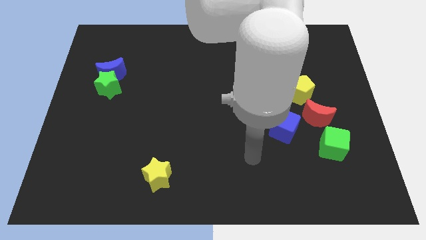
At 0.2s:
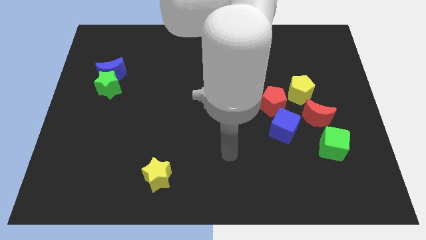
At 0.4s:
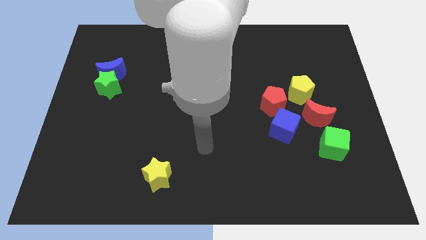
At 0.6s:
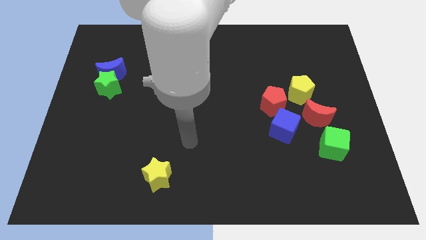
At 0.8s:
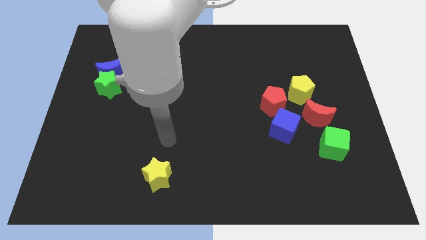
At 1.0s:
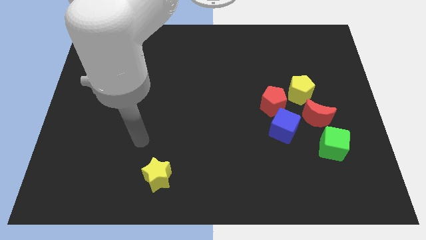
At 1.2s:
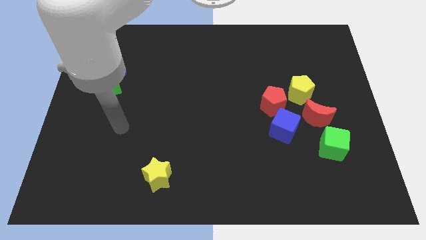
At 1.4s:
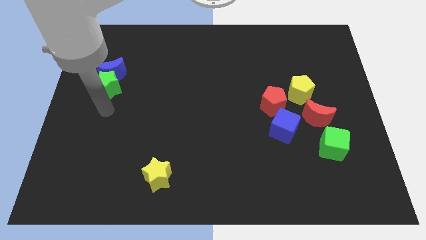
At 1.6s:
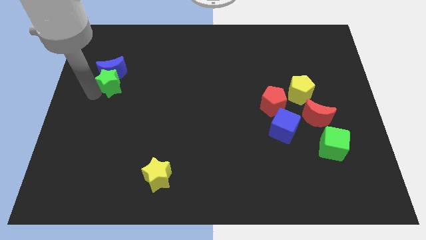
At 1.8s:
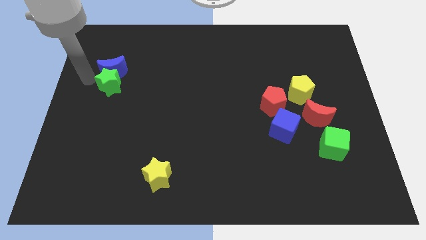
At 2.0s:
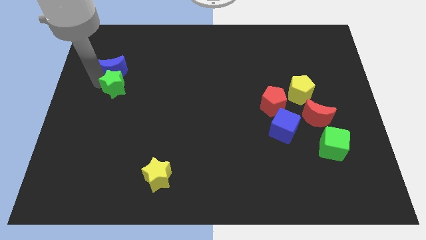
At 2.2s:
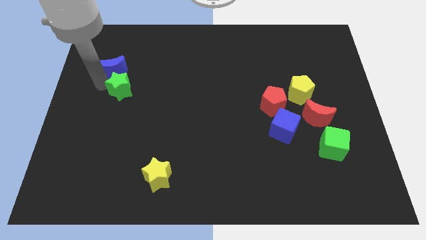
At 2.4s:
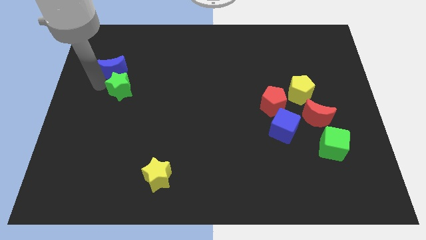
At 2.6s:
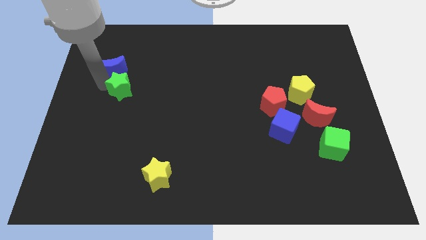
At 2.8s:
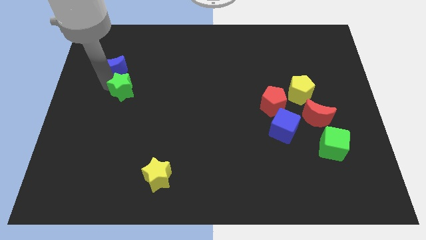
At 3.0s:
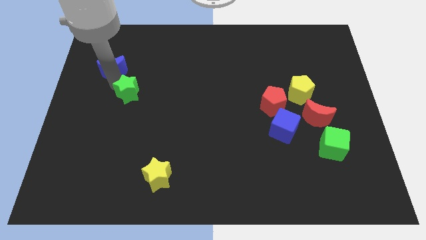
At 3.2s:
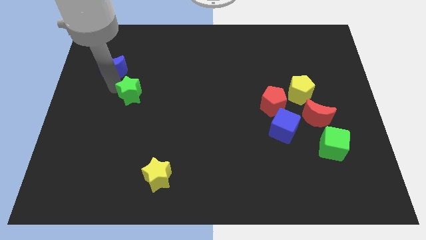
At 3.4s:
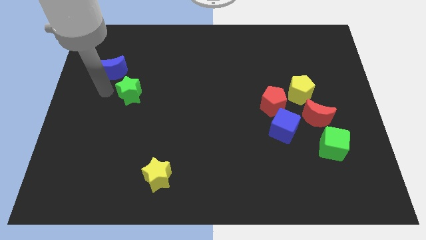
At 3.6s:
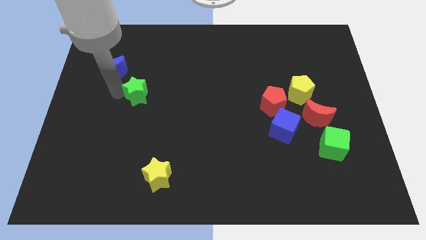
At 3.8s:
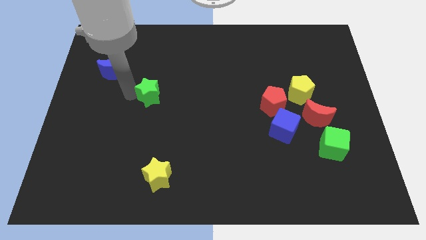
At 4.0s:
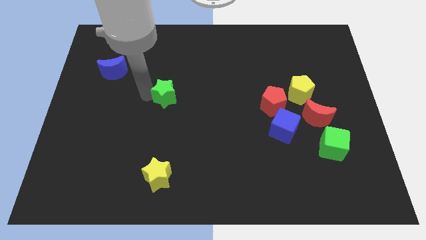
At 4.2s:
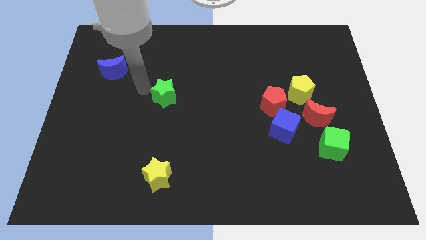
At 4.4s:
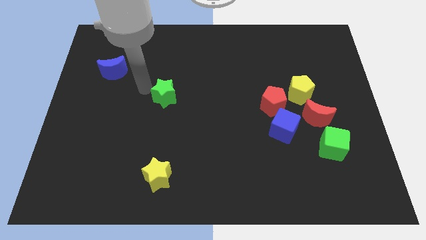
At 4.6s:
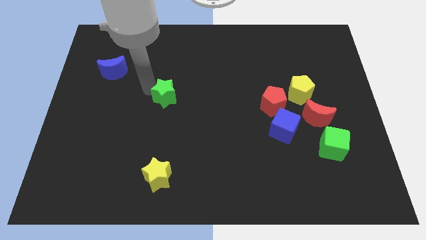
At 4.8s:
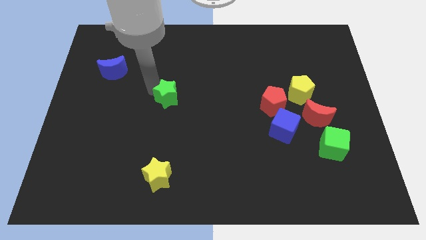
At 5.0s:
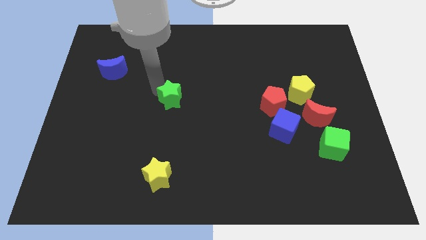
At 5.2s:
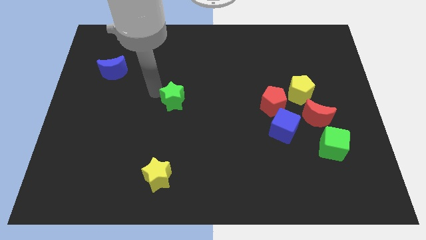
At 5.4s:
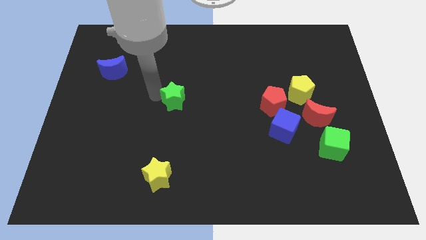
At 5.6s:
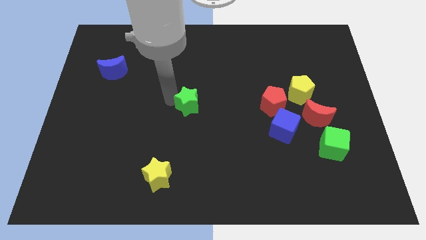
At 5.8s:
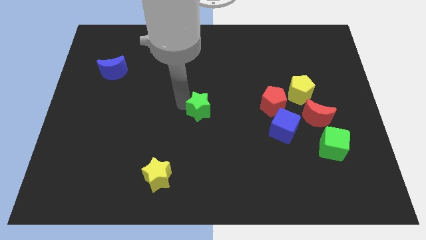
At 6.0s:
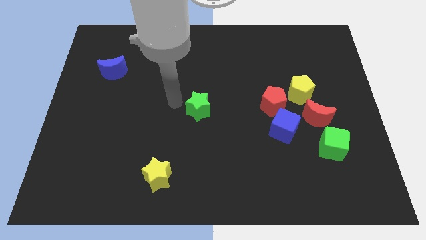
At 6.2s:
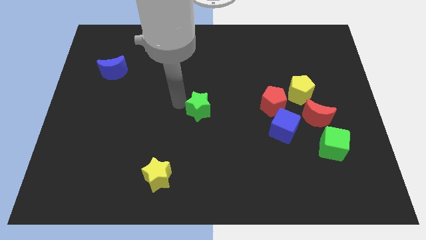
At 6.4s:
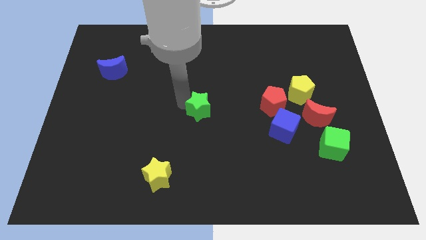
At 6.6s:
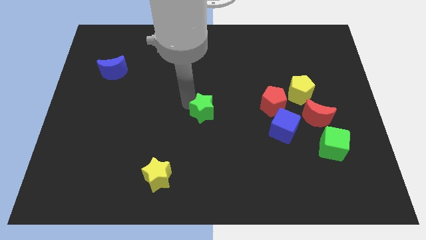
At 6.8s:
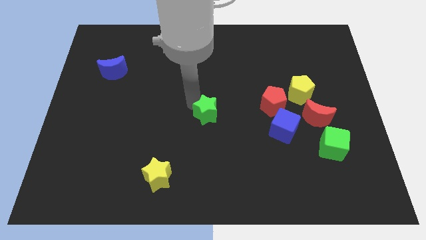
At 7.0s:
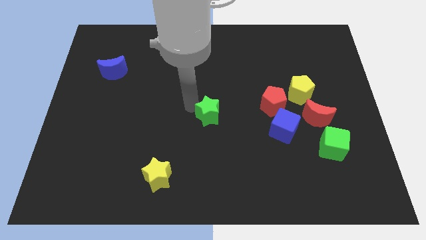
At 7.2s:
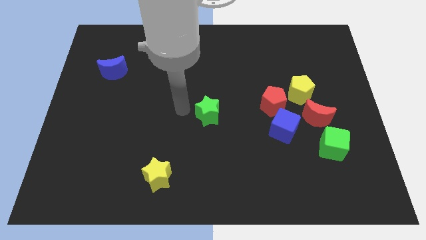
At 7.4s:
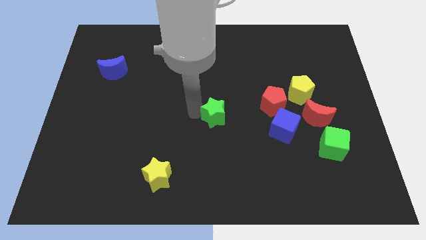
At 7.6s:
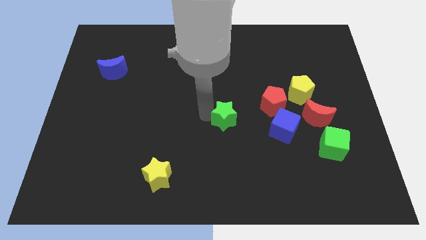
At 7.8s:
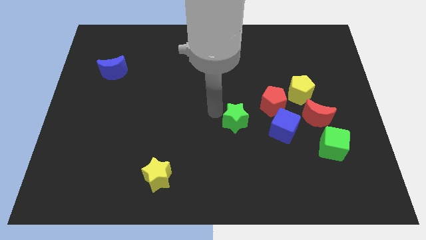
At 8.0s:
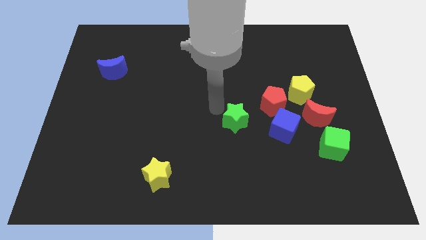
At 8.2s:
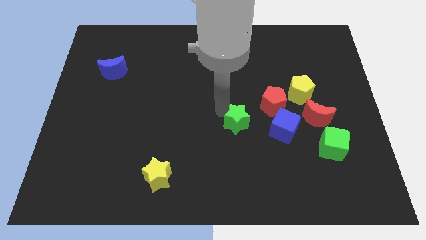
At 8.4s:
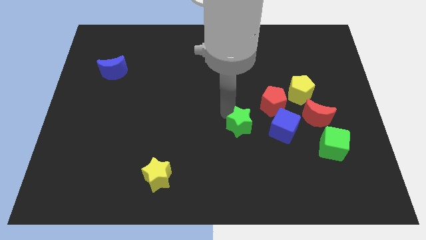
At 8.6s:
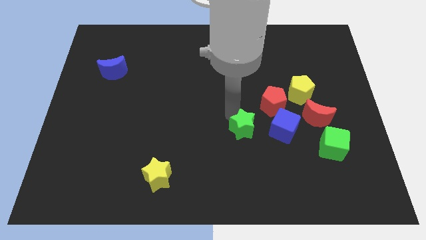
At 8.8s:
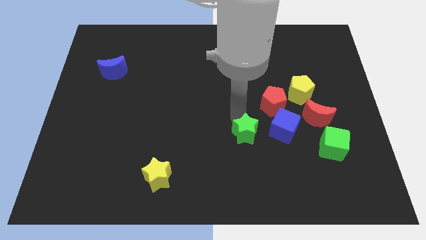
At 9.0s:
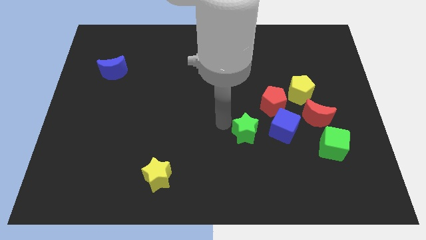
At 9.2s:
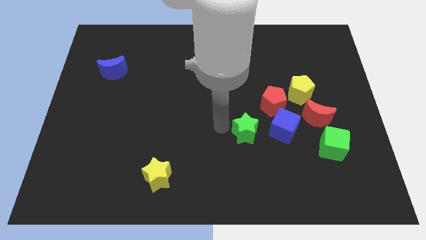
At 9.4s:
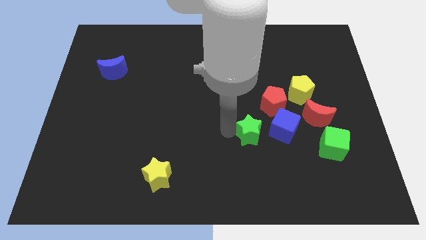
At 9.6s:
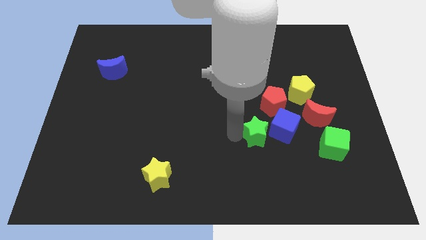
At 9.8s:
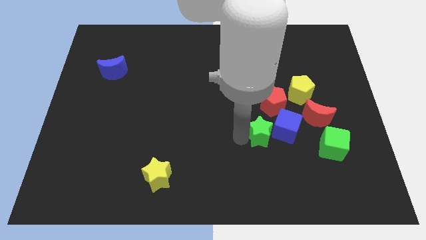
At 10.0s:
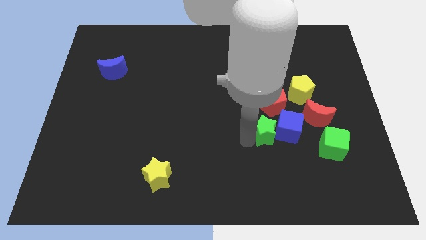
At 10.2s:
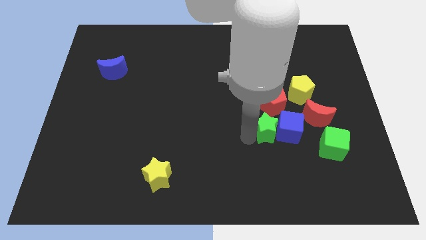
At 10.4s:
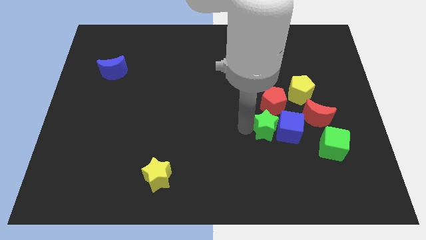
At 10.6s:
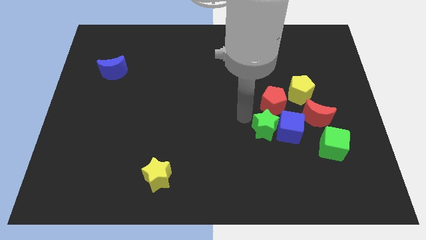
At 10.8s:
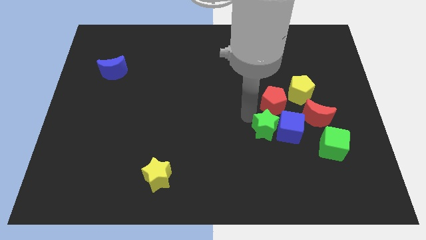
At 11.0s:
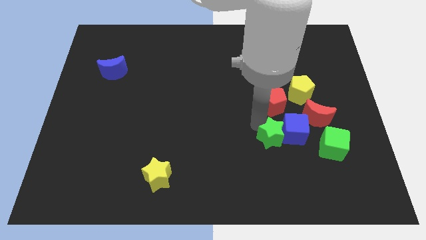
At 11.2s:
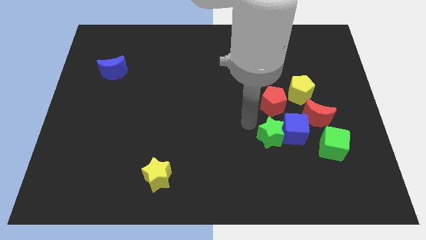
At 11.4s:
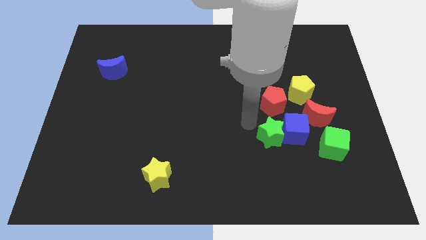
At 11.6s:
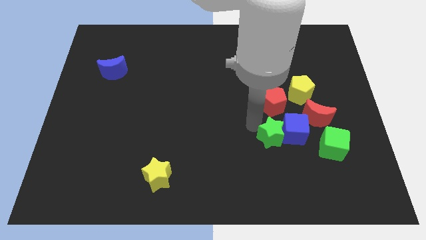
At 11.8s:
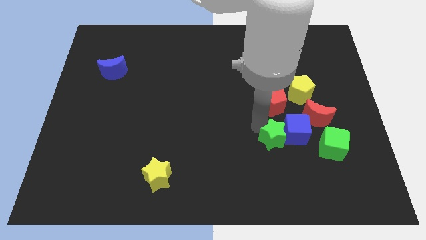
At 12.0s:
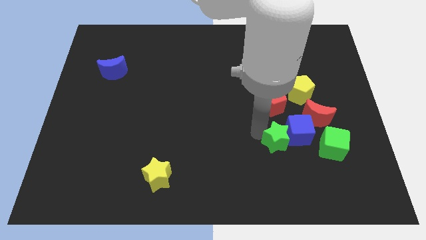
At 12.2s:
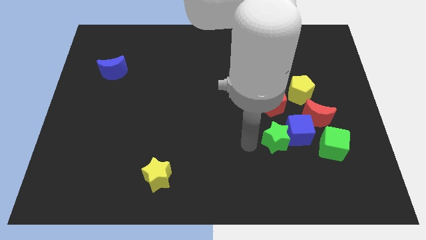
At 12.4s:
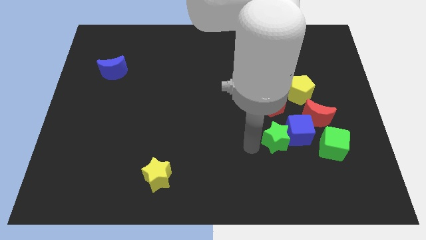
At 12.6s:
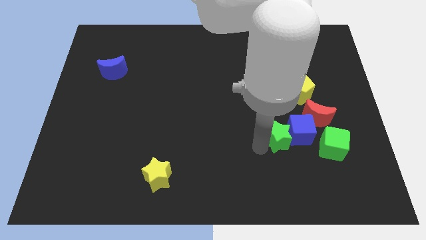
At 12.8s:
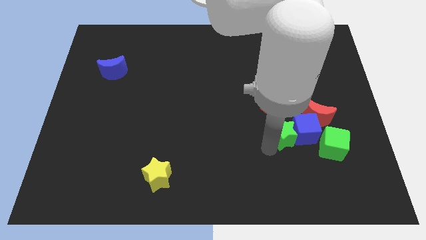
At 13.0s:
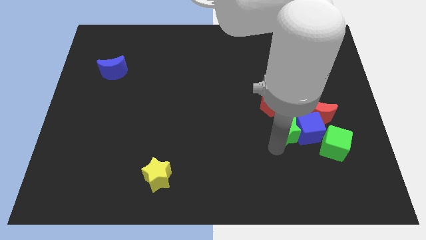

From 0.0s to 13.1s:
put the green star to the bottom right side of the red pentagon
